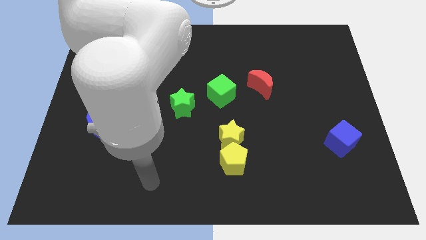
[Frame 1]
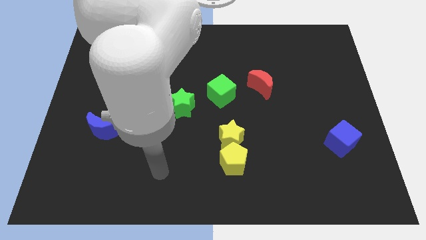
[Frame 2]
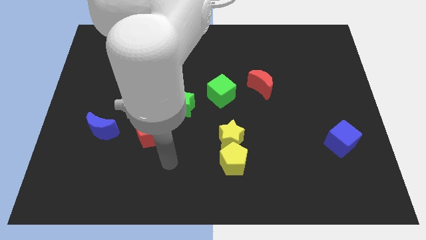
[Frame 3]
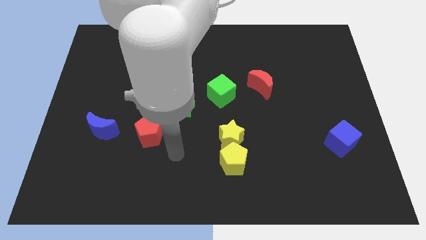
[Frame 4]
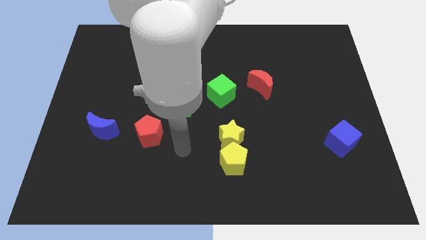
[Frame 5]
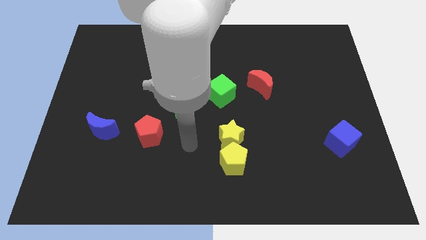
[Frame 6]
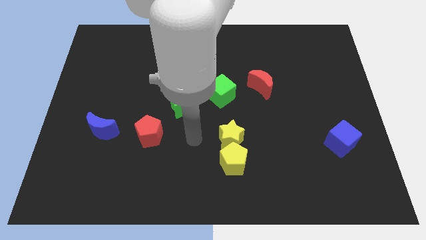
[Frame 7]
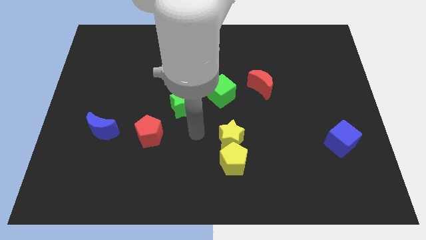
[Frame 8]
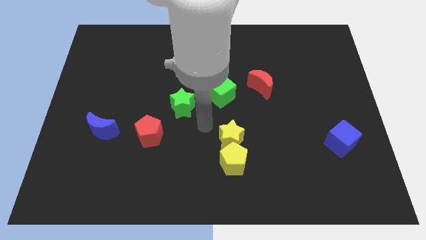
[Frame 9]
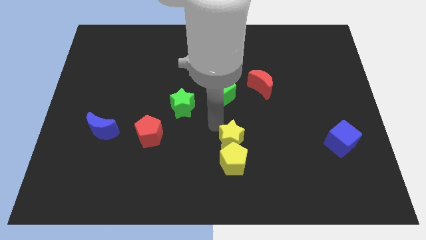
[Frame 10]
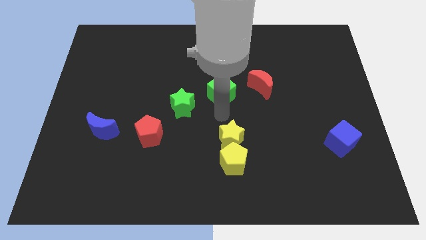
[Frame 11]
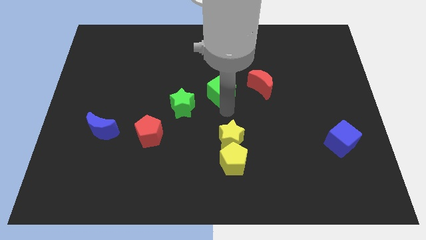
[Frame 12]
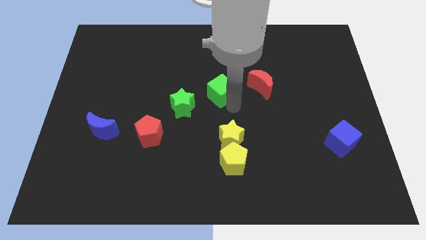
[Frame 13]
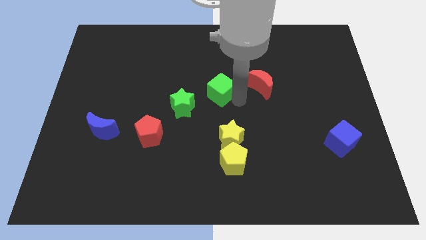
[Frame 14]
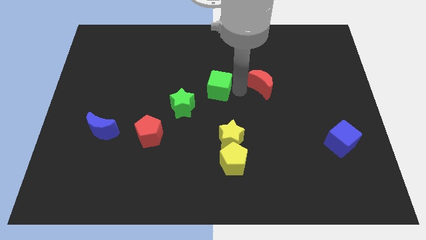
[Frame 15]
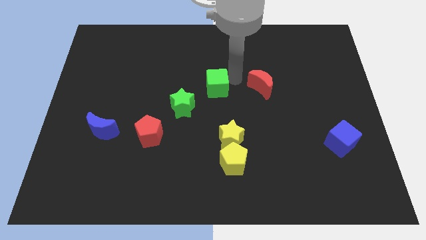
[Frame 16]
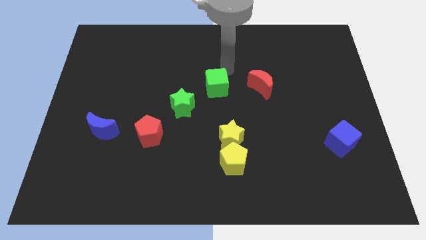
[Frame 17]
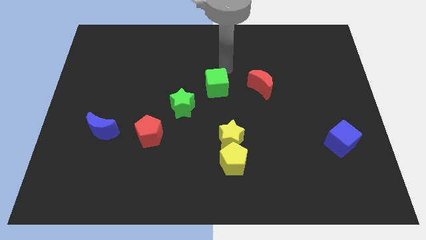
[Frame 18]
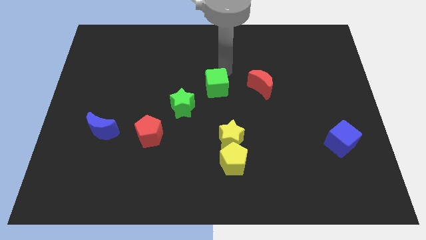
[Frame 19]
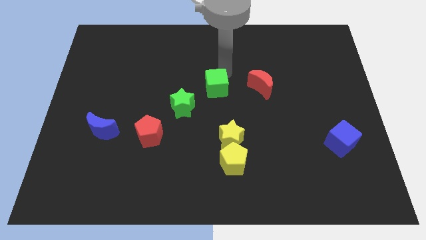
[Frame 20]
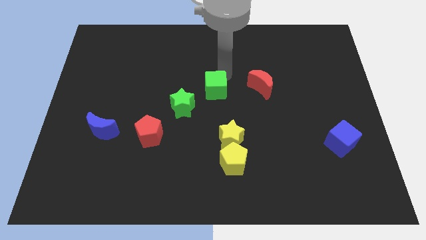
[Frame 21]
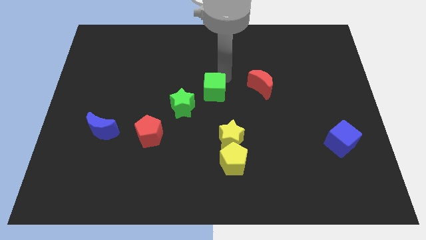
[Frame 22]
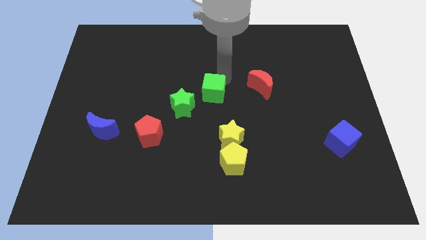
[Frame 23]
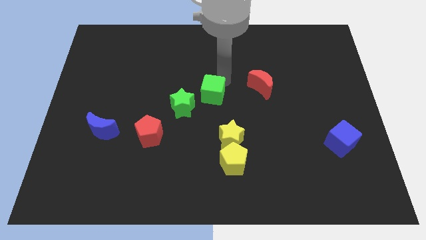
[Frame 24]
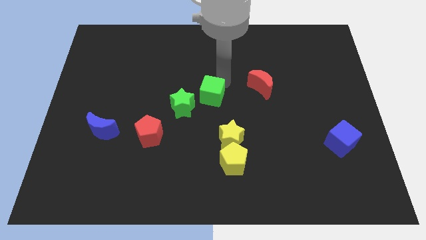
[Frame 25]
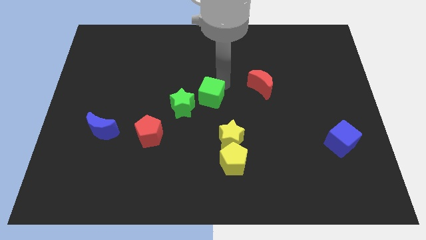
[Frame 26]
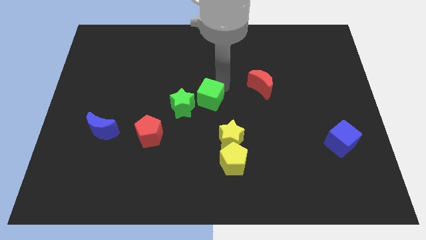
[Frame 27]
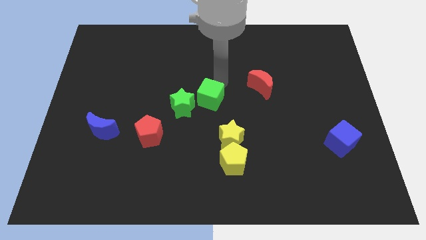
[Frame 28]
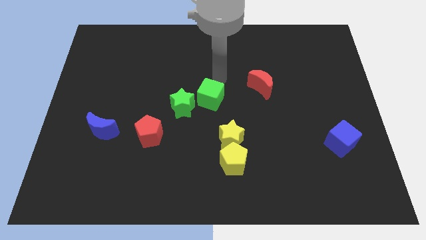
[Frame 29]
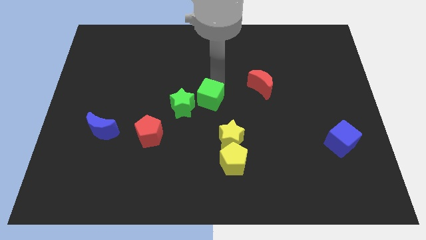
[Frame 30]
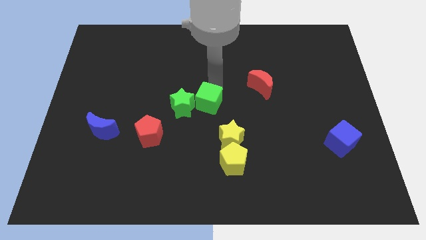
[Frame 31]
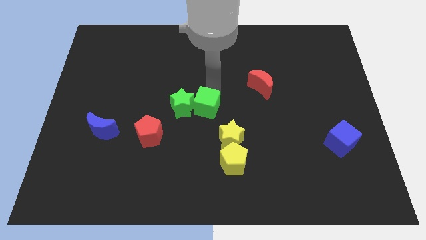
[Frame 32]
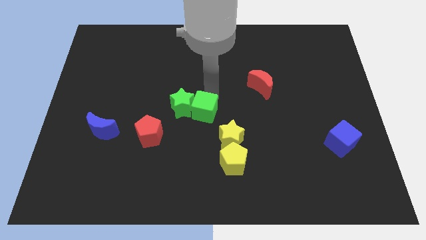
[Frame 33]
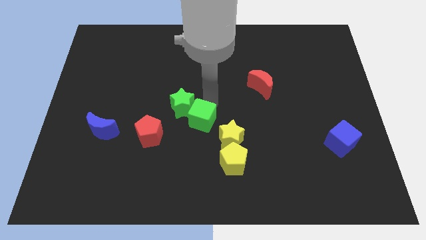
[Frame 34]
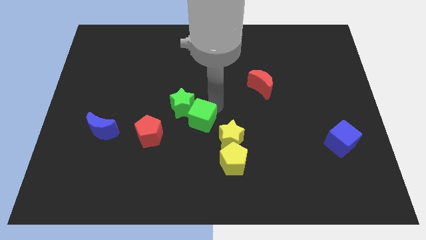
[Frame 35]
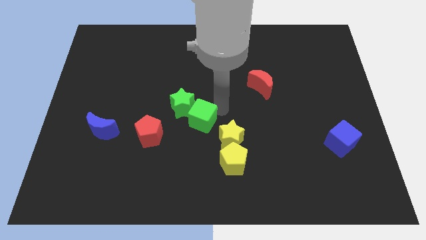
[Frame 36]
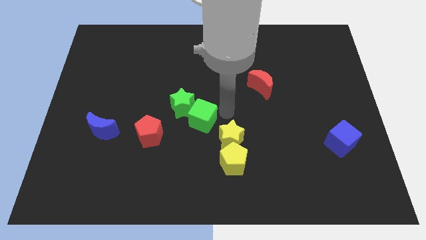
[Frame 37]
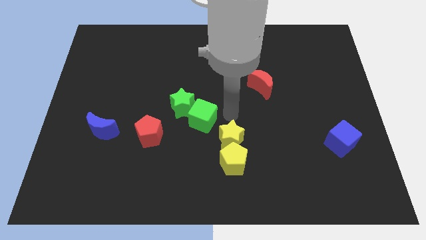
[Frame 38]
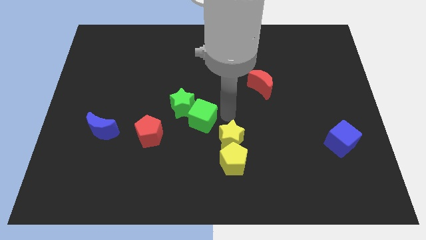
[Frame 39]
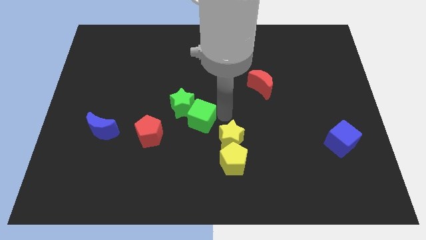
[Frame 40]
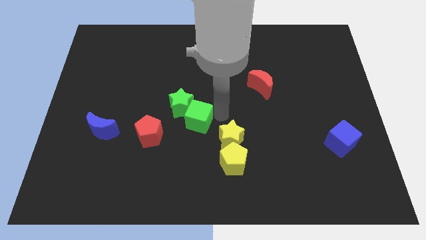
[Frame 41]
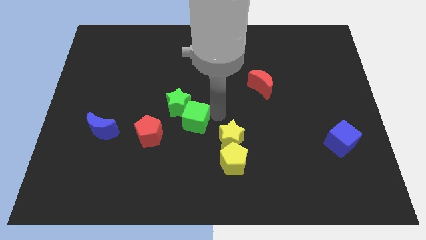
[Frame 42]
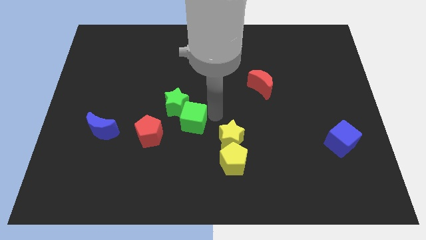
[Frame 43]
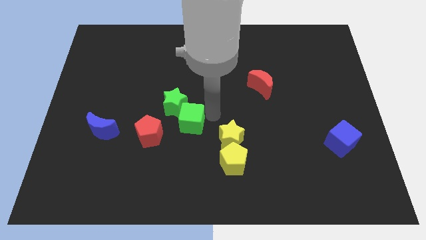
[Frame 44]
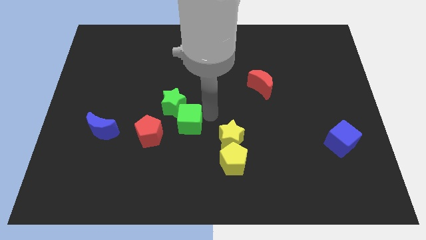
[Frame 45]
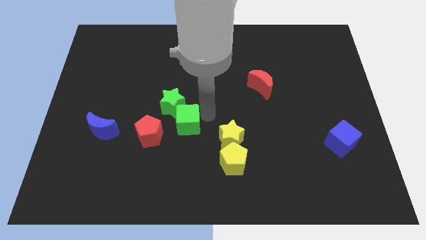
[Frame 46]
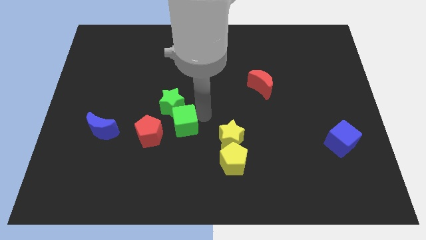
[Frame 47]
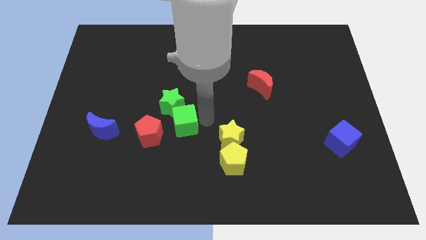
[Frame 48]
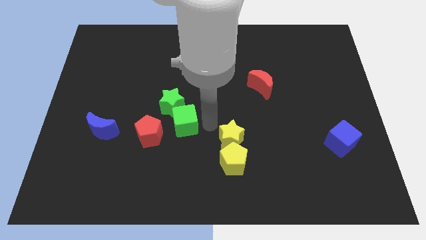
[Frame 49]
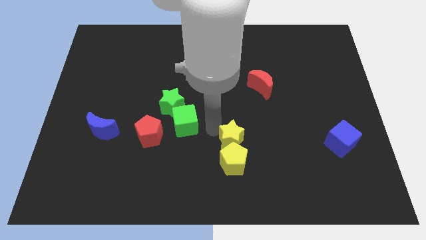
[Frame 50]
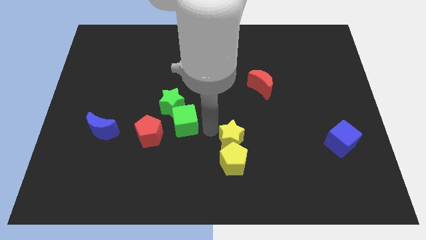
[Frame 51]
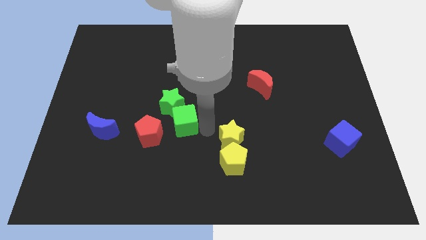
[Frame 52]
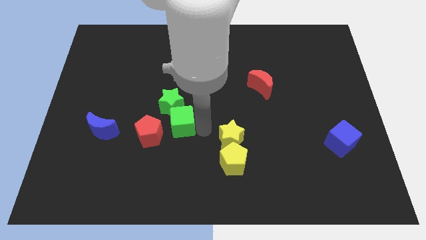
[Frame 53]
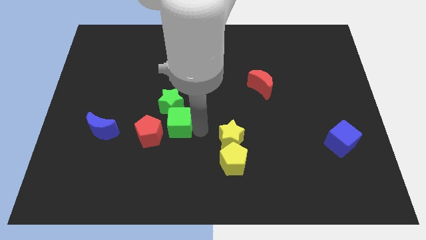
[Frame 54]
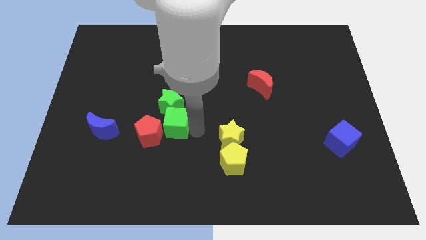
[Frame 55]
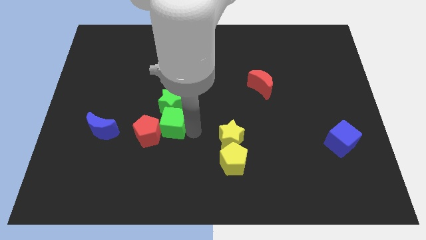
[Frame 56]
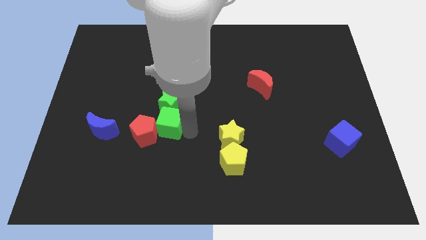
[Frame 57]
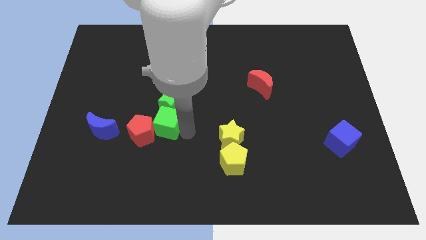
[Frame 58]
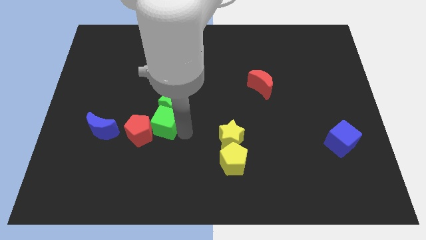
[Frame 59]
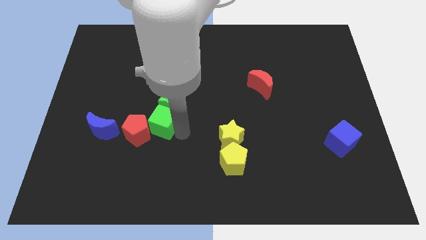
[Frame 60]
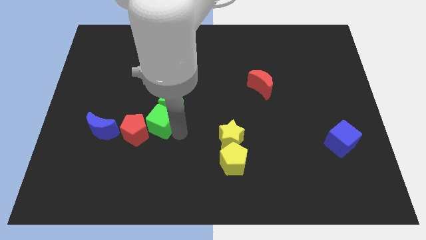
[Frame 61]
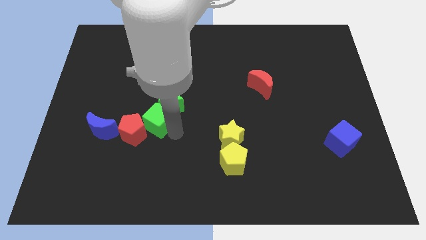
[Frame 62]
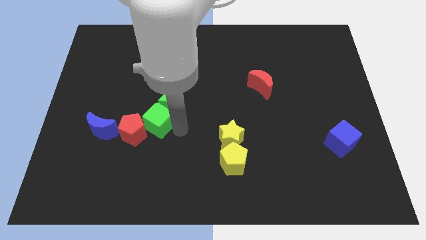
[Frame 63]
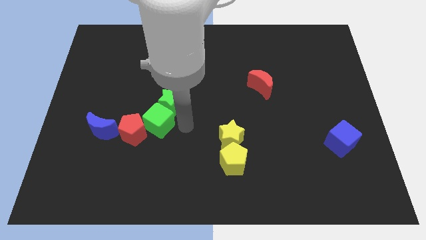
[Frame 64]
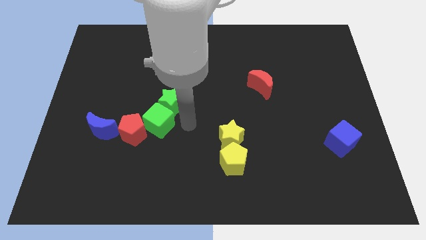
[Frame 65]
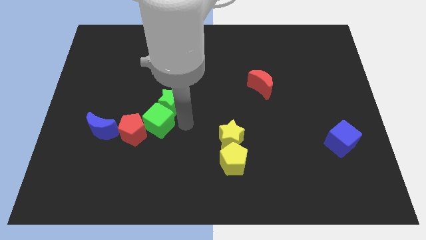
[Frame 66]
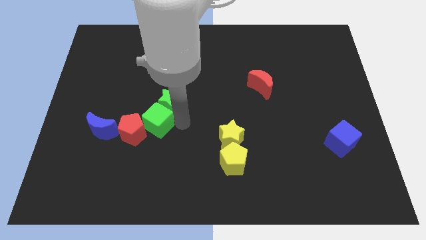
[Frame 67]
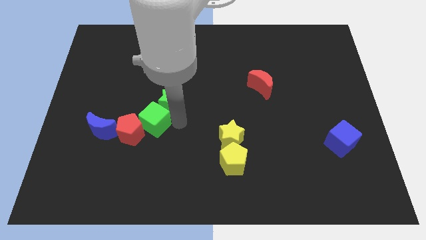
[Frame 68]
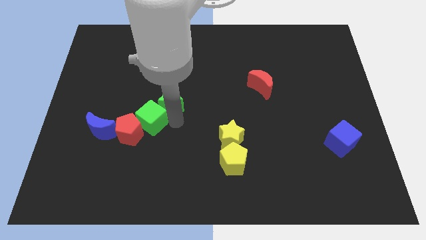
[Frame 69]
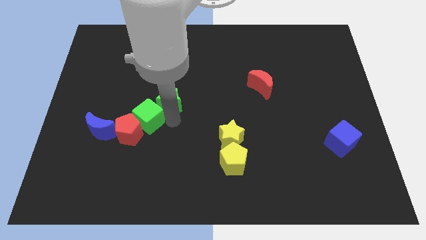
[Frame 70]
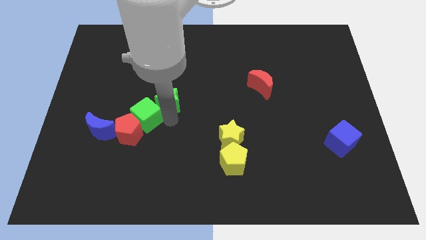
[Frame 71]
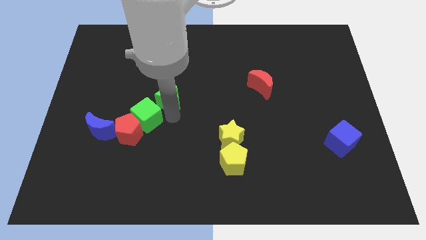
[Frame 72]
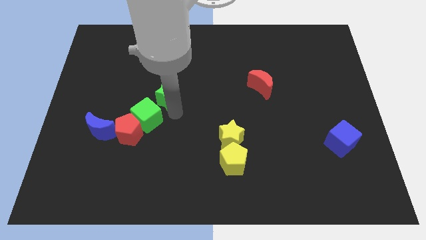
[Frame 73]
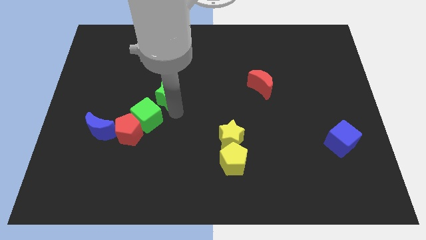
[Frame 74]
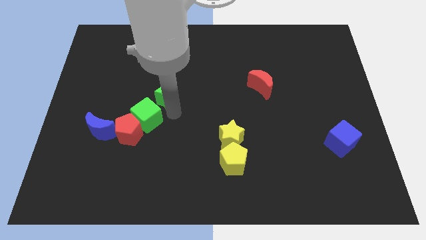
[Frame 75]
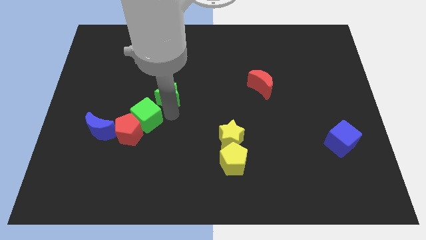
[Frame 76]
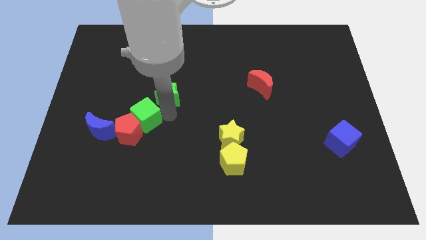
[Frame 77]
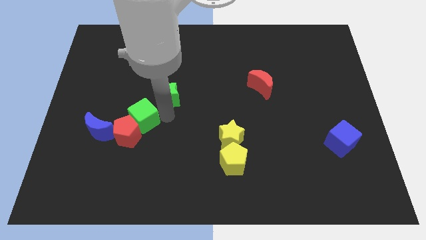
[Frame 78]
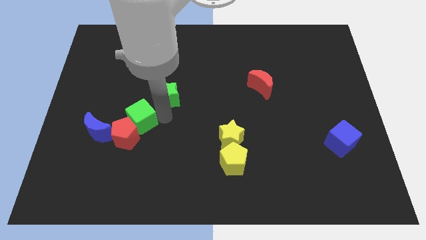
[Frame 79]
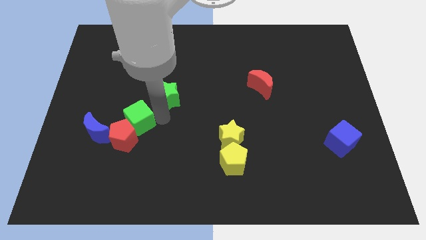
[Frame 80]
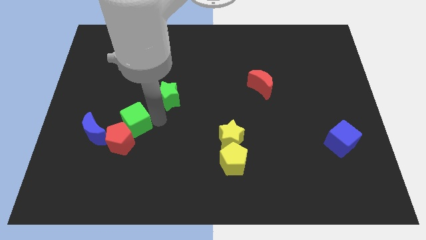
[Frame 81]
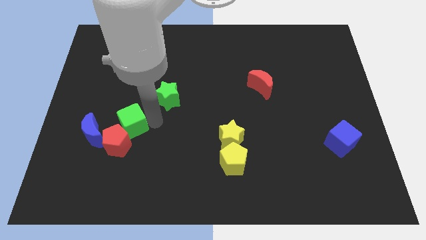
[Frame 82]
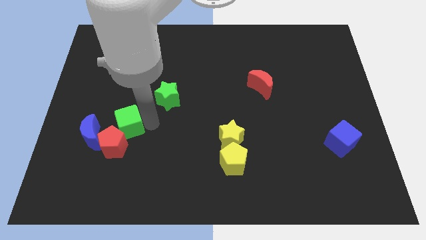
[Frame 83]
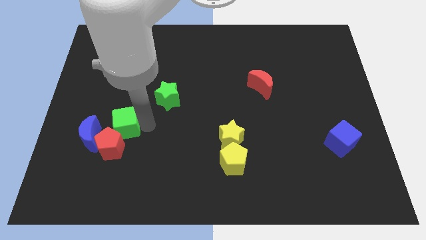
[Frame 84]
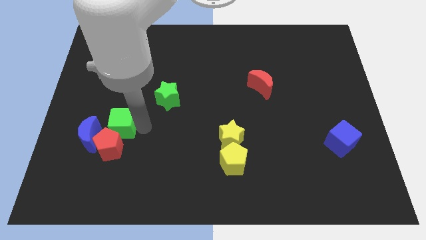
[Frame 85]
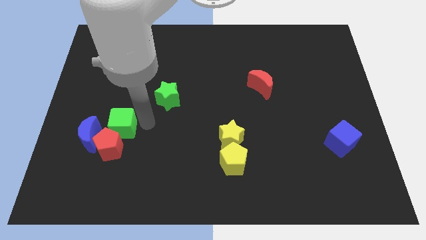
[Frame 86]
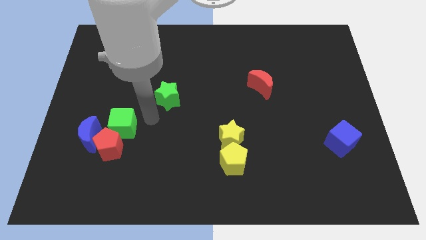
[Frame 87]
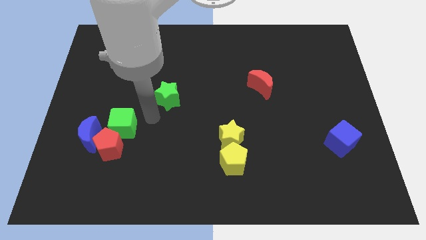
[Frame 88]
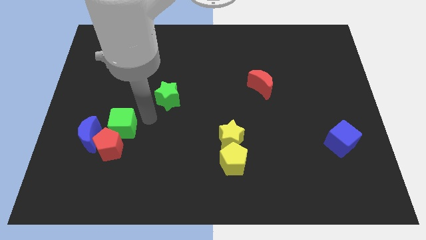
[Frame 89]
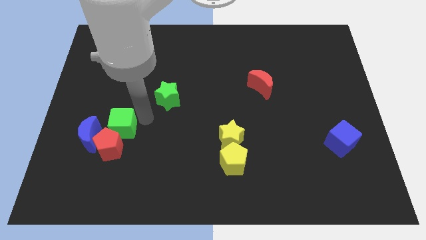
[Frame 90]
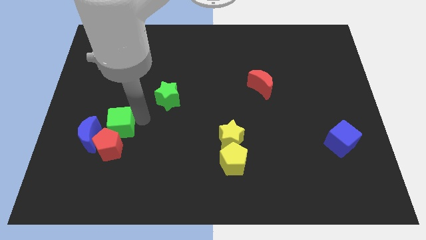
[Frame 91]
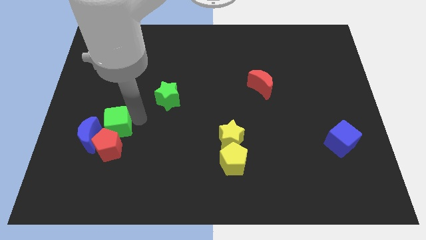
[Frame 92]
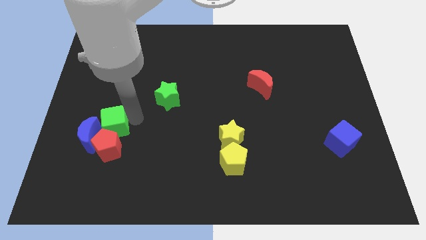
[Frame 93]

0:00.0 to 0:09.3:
move the green cube to the blue moon
